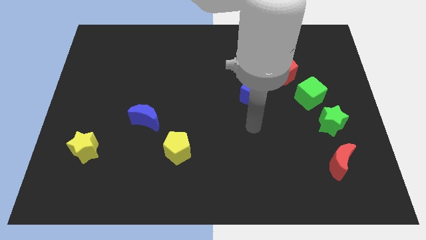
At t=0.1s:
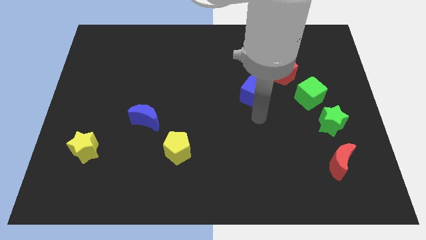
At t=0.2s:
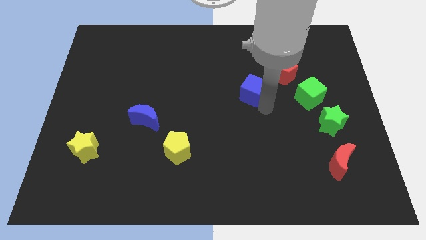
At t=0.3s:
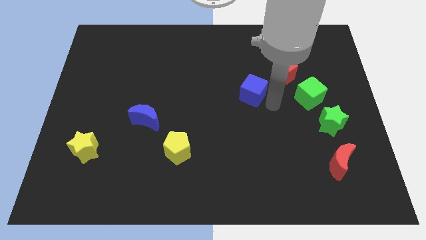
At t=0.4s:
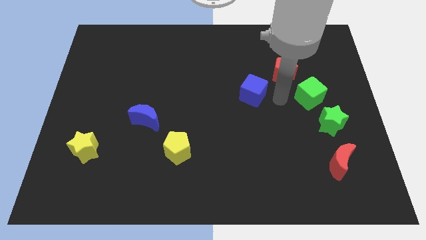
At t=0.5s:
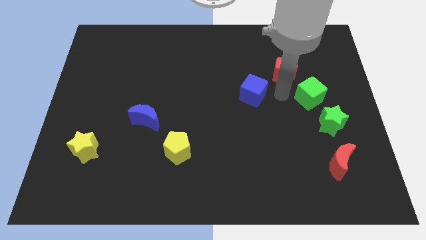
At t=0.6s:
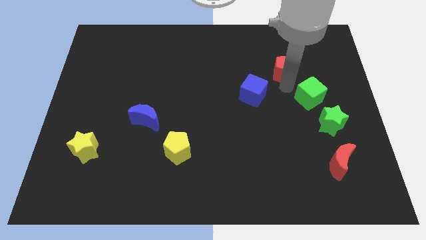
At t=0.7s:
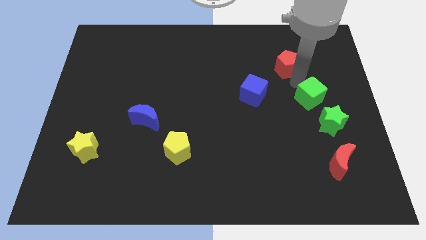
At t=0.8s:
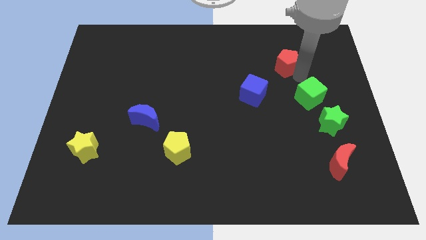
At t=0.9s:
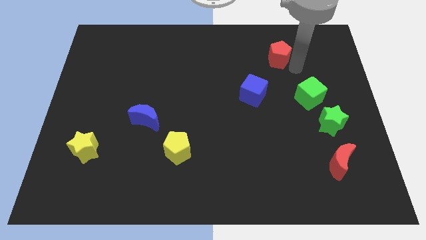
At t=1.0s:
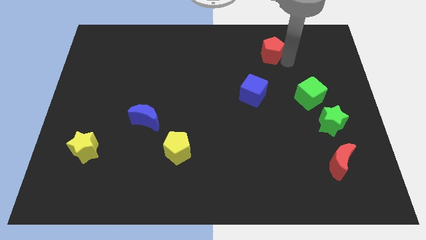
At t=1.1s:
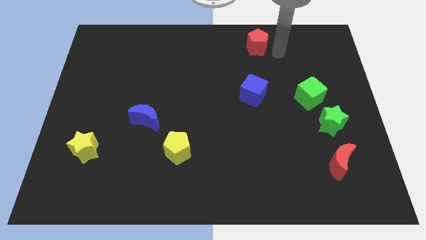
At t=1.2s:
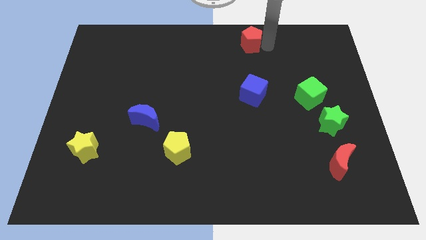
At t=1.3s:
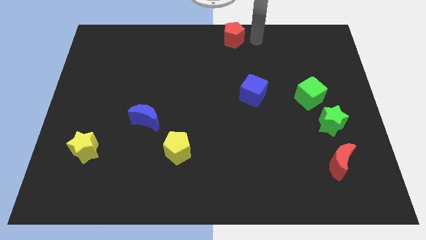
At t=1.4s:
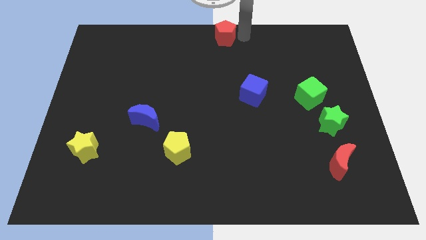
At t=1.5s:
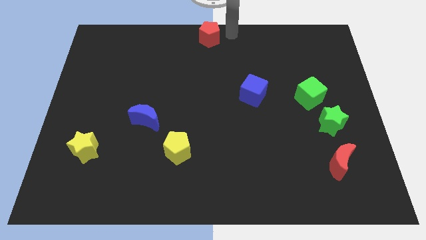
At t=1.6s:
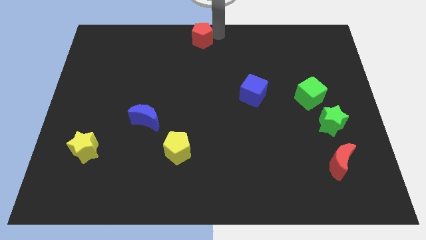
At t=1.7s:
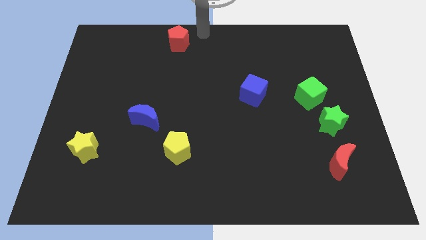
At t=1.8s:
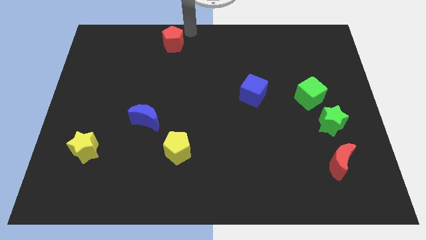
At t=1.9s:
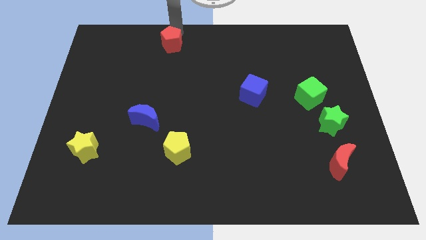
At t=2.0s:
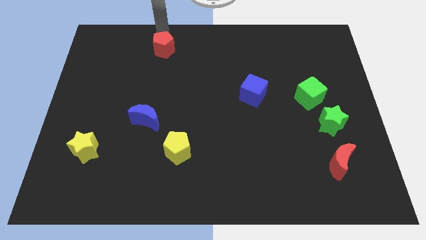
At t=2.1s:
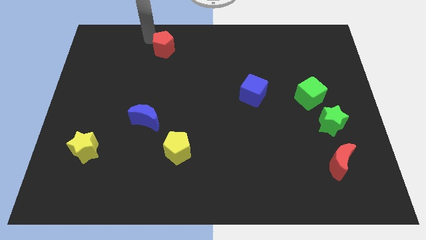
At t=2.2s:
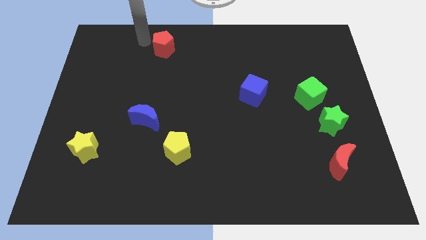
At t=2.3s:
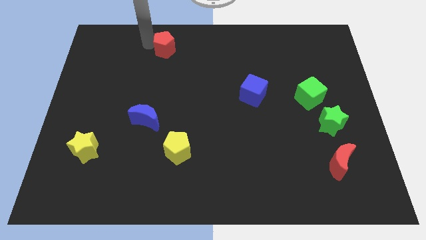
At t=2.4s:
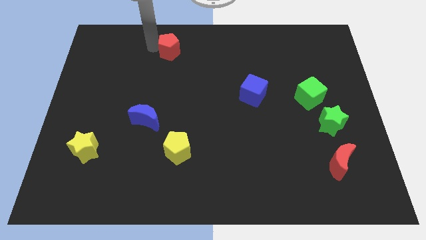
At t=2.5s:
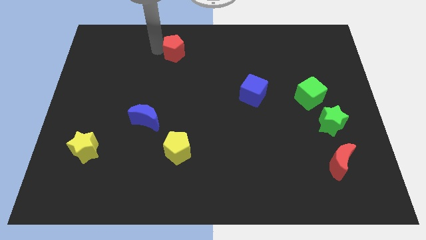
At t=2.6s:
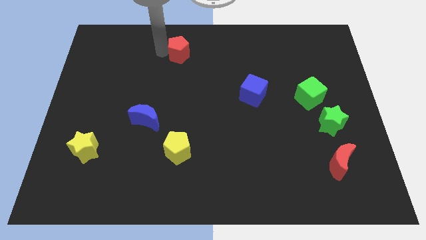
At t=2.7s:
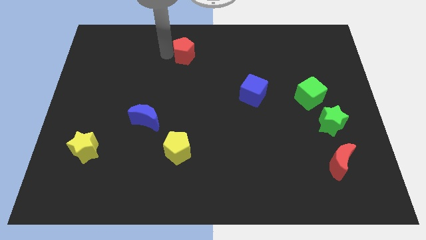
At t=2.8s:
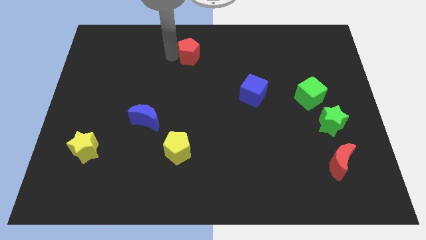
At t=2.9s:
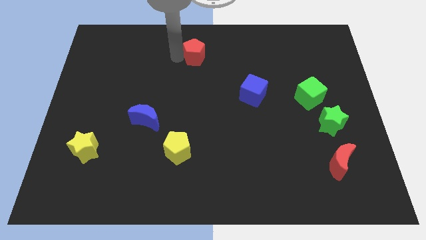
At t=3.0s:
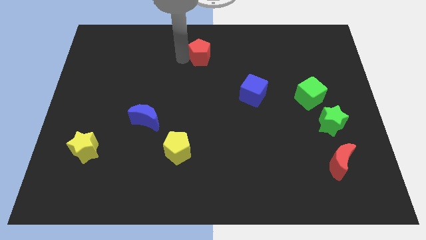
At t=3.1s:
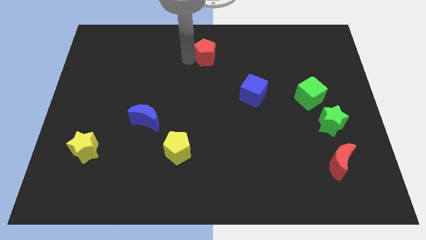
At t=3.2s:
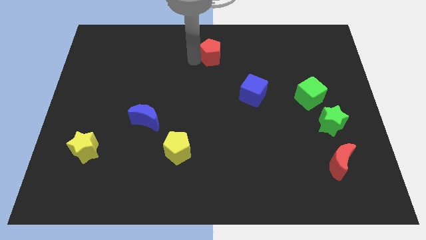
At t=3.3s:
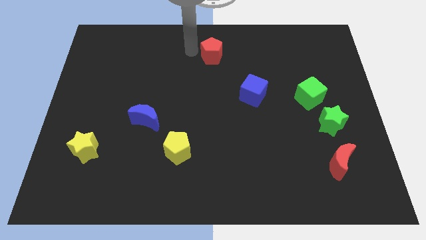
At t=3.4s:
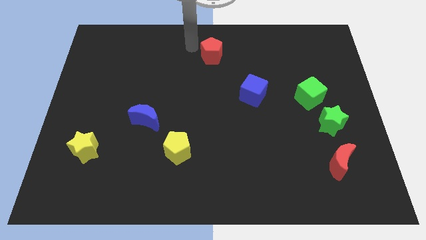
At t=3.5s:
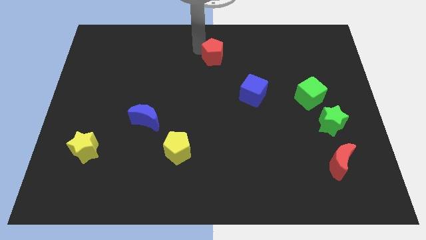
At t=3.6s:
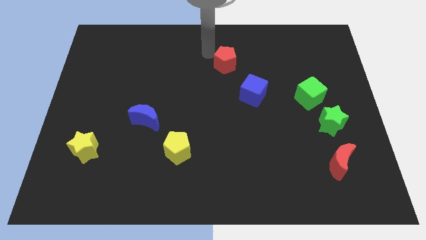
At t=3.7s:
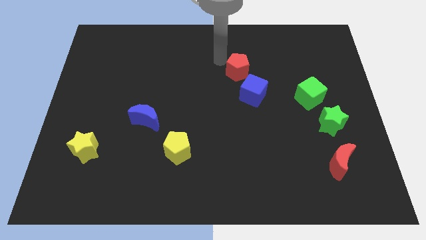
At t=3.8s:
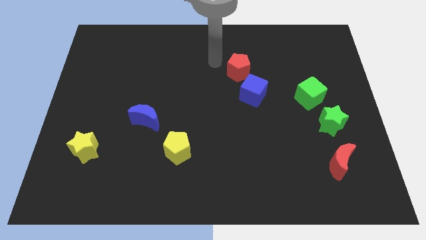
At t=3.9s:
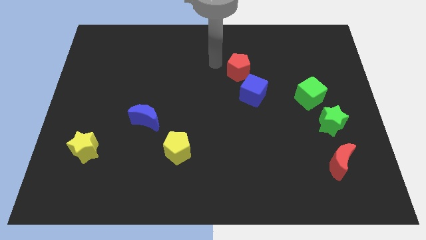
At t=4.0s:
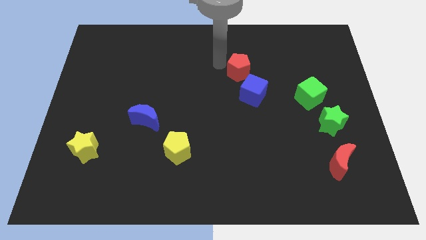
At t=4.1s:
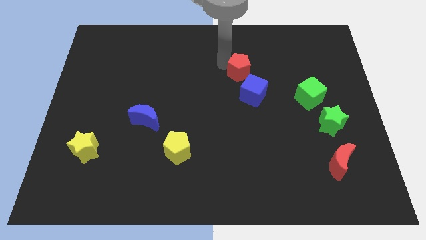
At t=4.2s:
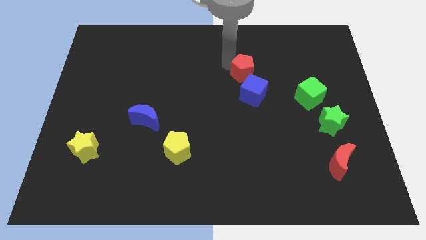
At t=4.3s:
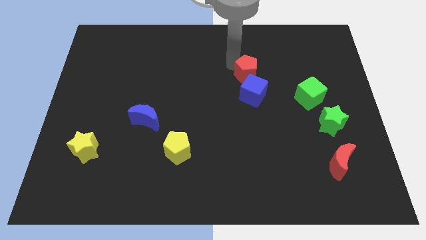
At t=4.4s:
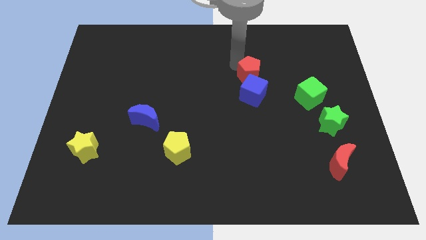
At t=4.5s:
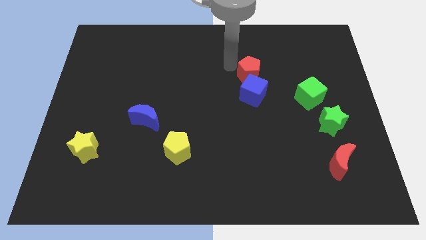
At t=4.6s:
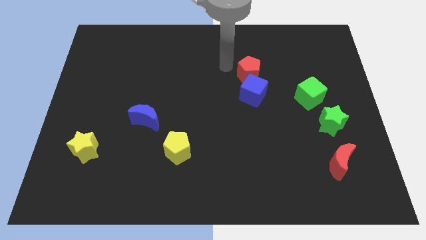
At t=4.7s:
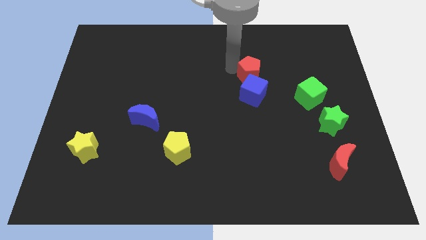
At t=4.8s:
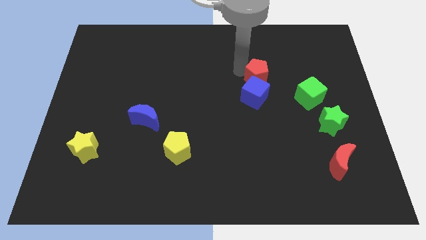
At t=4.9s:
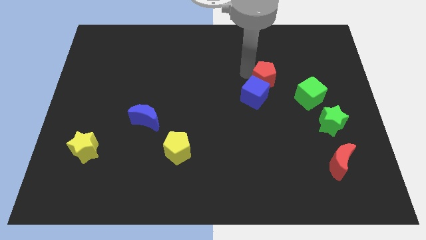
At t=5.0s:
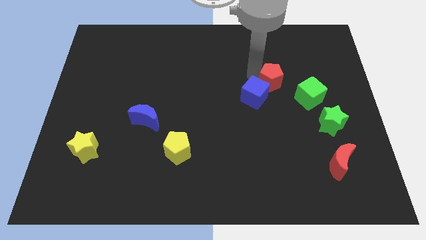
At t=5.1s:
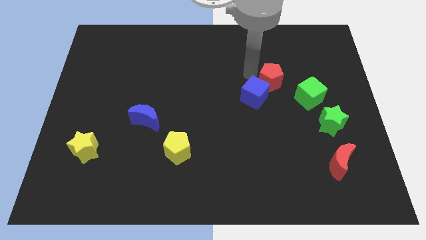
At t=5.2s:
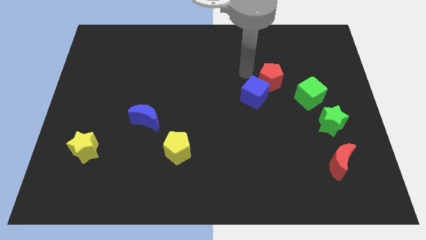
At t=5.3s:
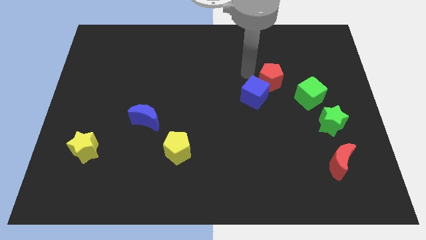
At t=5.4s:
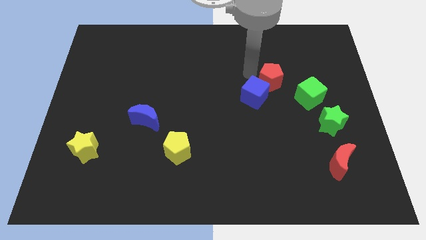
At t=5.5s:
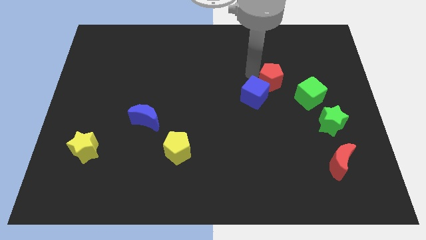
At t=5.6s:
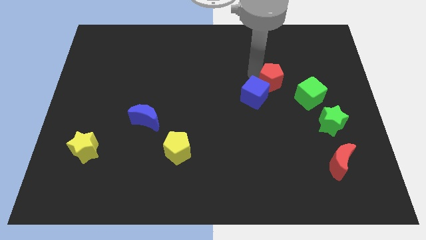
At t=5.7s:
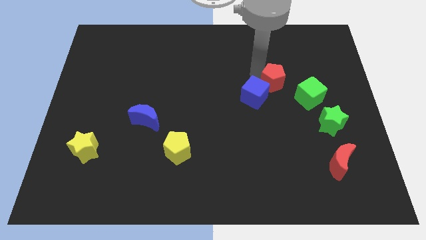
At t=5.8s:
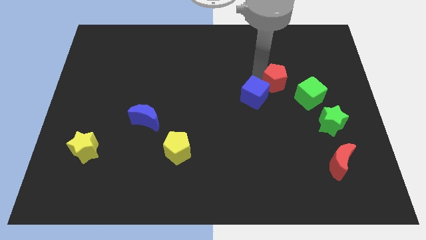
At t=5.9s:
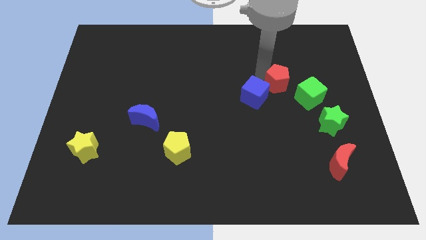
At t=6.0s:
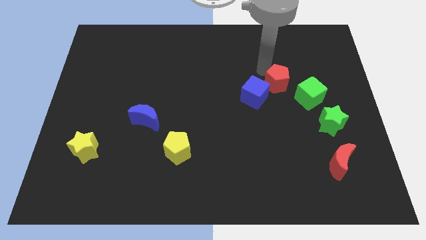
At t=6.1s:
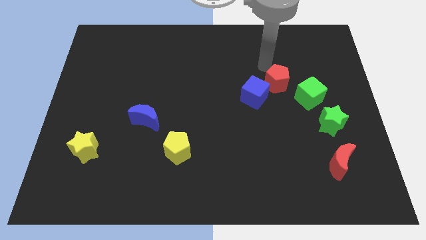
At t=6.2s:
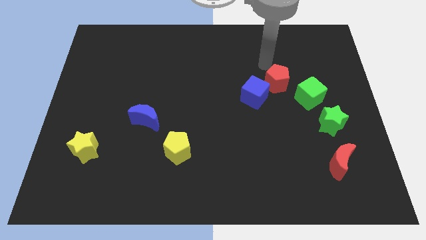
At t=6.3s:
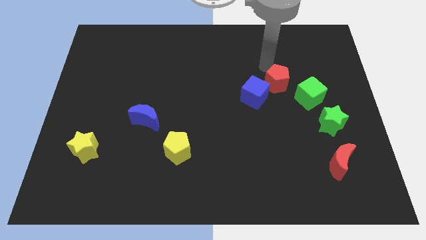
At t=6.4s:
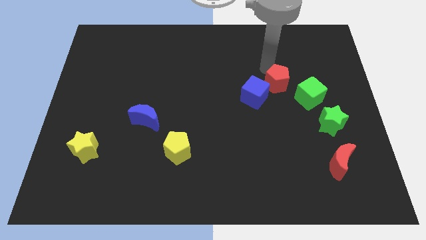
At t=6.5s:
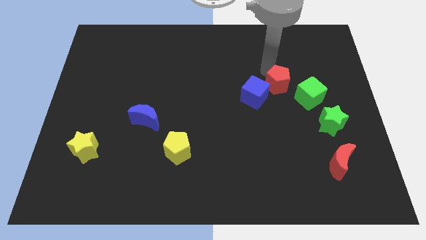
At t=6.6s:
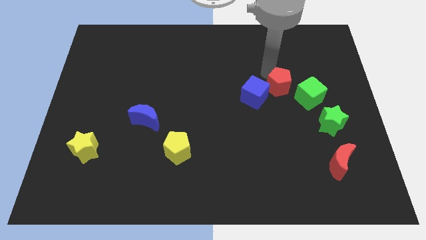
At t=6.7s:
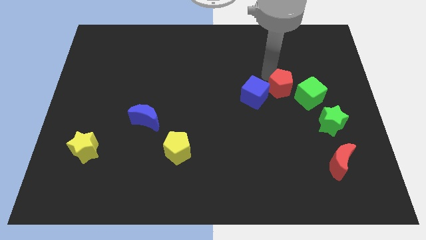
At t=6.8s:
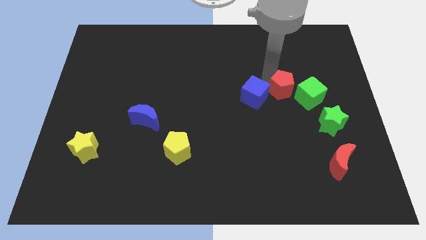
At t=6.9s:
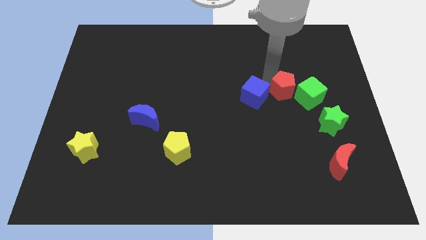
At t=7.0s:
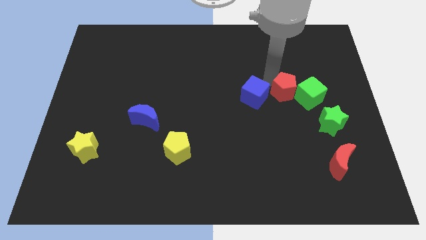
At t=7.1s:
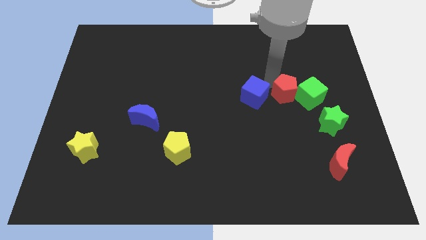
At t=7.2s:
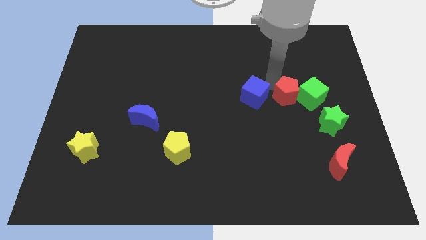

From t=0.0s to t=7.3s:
push the red pentagon to the bottom left of the green cube
